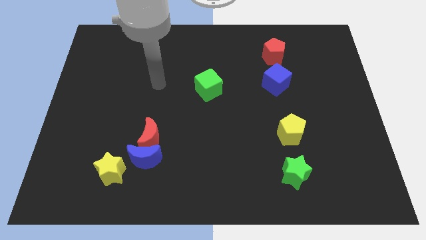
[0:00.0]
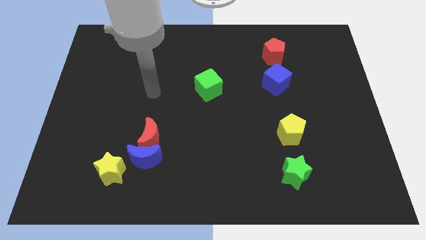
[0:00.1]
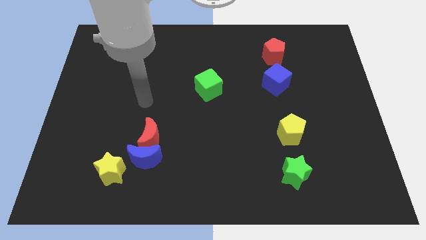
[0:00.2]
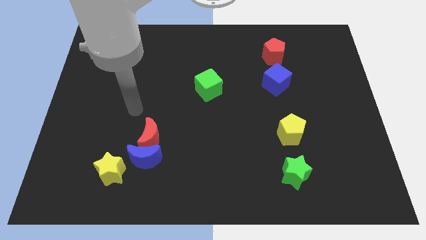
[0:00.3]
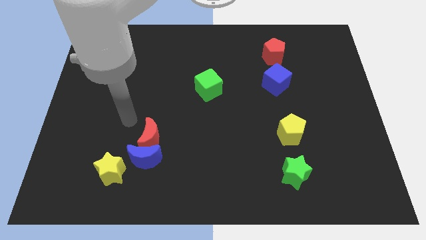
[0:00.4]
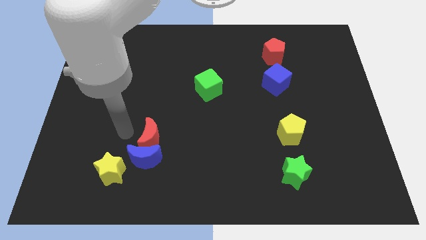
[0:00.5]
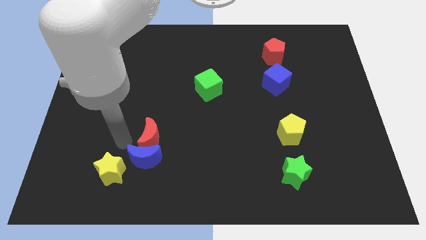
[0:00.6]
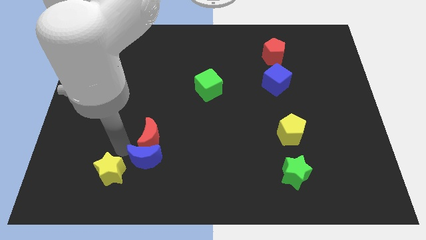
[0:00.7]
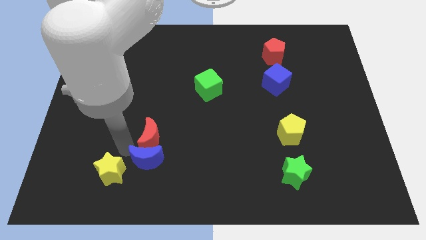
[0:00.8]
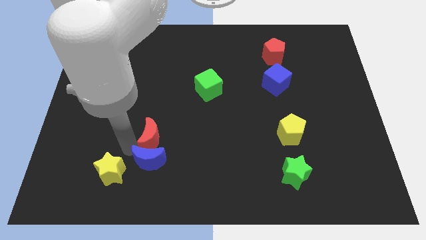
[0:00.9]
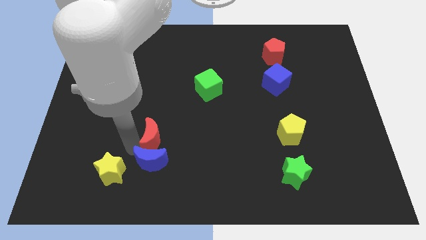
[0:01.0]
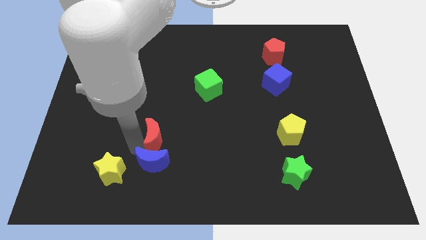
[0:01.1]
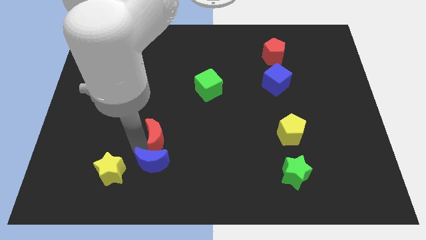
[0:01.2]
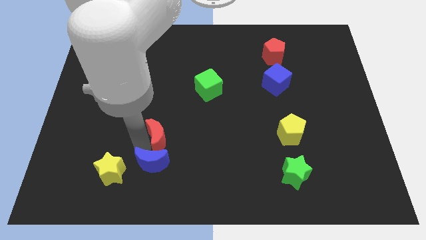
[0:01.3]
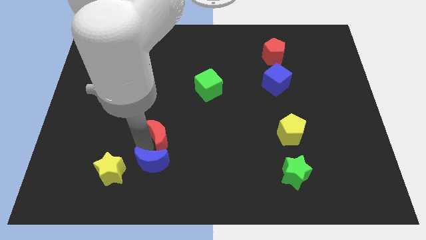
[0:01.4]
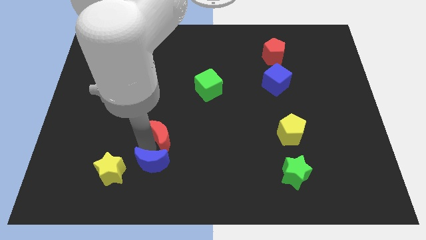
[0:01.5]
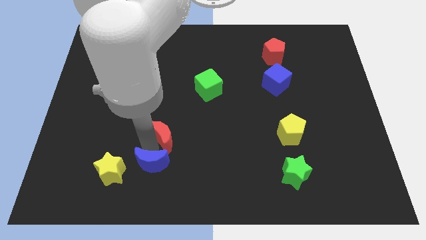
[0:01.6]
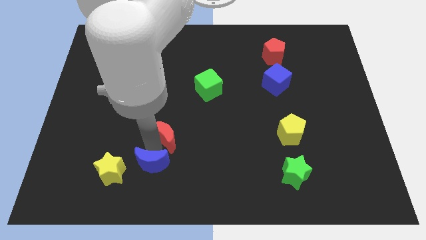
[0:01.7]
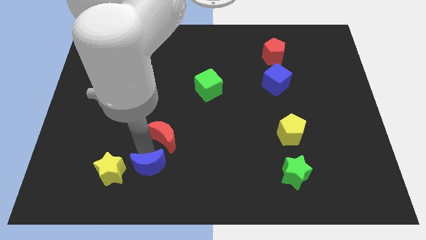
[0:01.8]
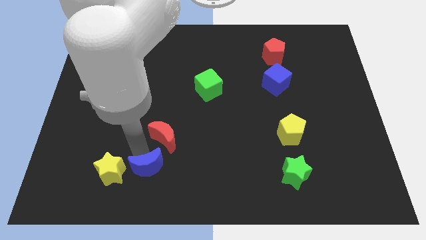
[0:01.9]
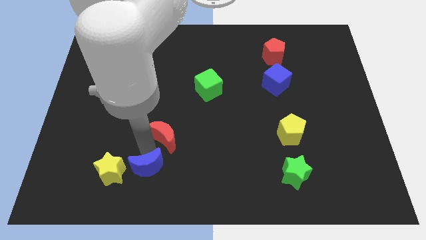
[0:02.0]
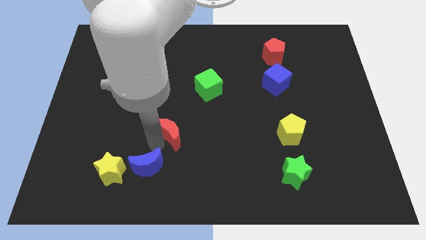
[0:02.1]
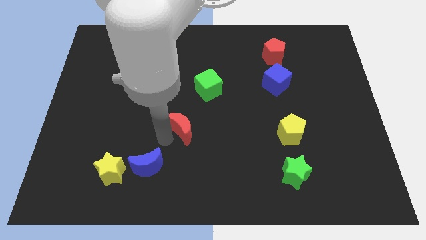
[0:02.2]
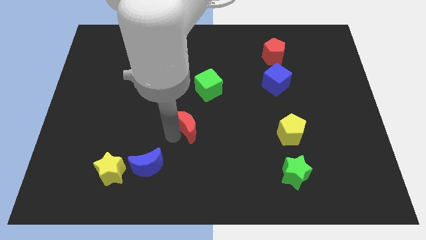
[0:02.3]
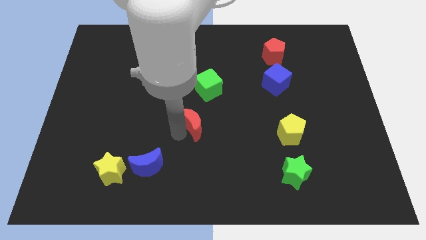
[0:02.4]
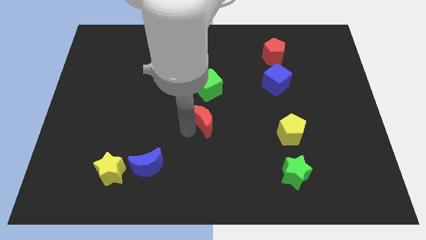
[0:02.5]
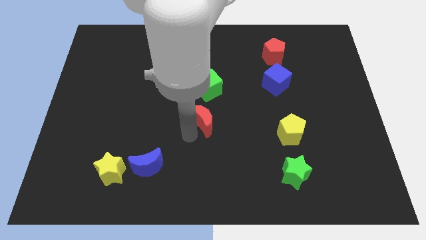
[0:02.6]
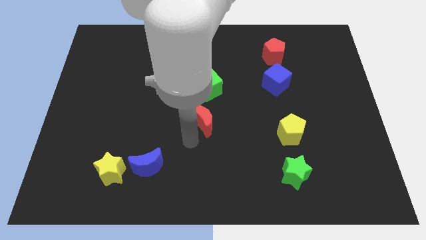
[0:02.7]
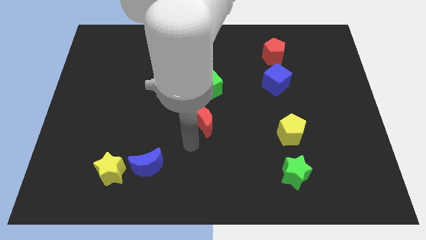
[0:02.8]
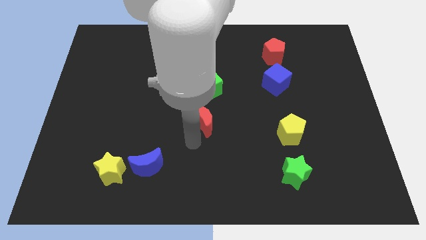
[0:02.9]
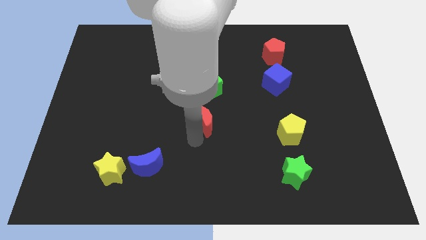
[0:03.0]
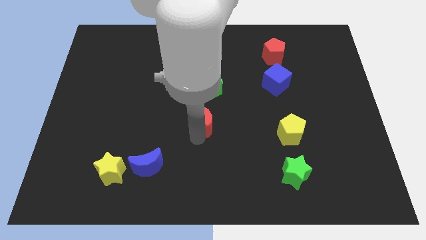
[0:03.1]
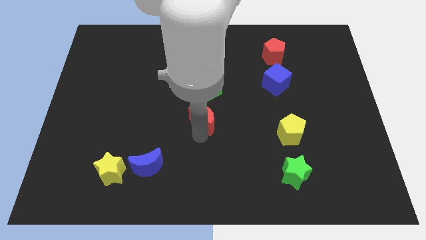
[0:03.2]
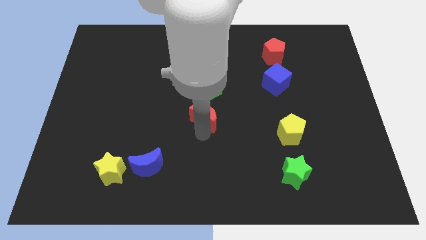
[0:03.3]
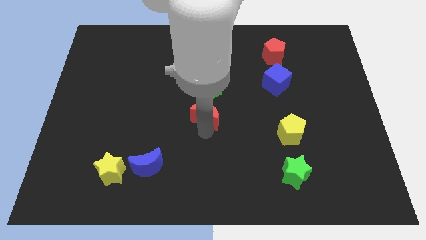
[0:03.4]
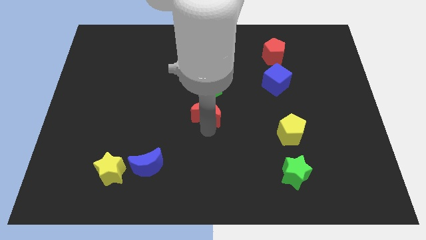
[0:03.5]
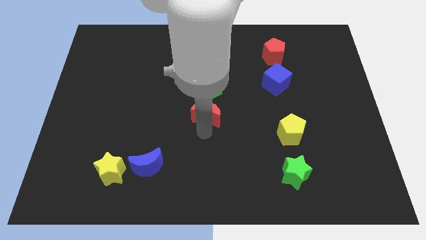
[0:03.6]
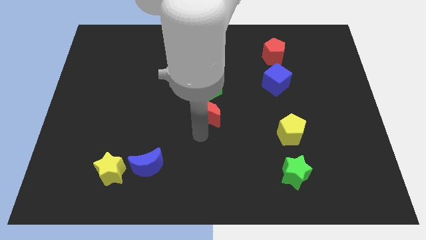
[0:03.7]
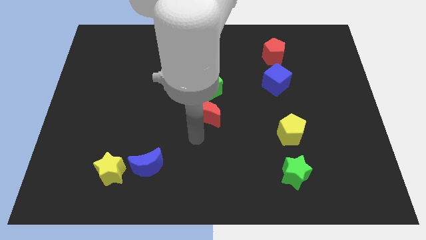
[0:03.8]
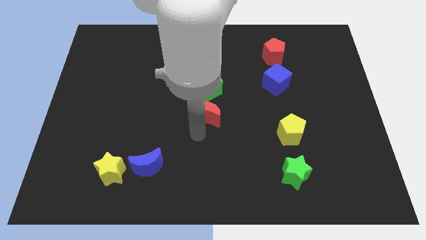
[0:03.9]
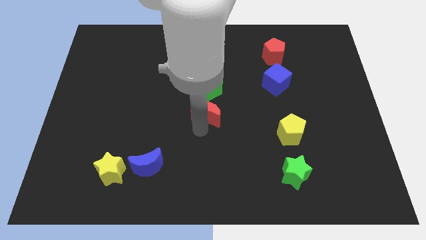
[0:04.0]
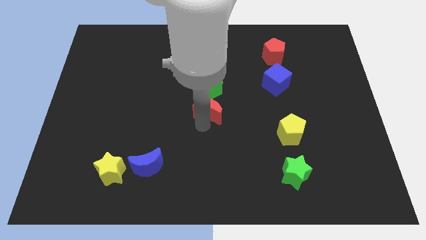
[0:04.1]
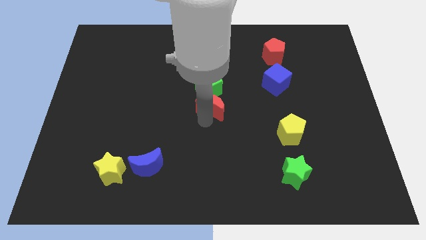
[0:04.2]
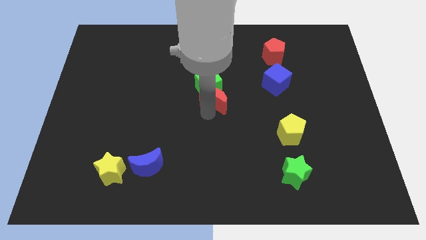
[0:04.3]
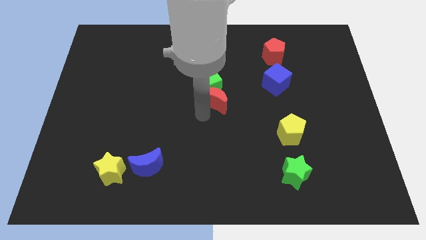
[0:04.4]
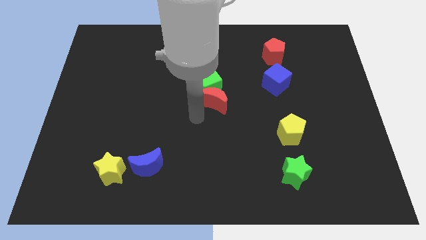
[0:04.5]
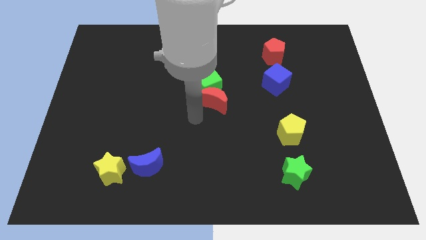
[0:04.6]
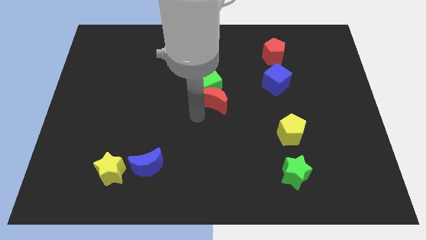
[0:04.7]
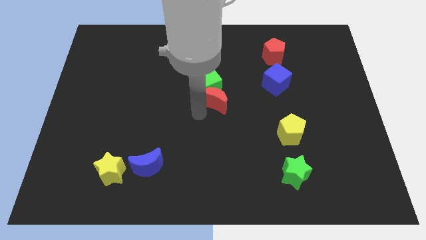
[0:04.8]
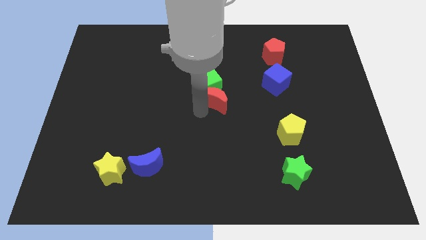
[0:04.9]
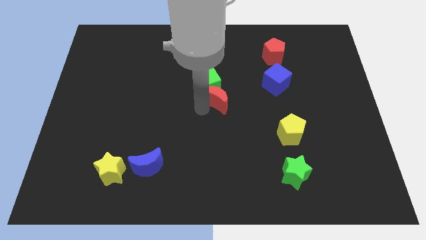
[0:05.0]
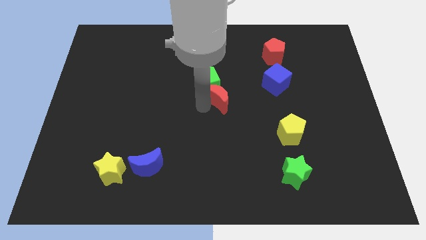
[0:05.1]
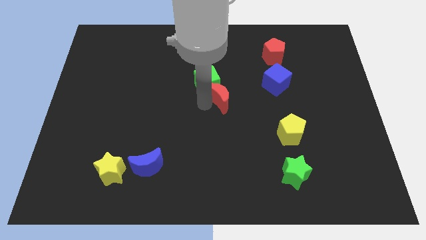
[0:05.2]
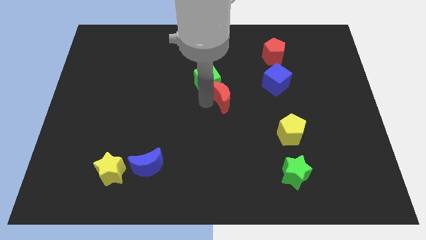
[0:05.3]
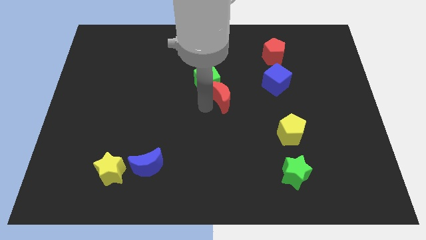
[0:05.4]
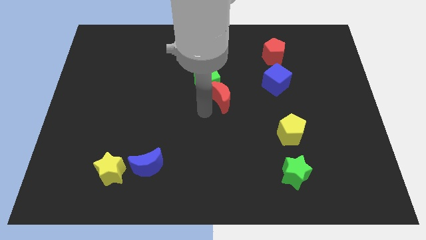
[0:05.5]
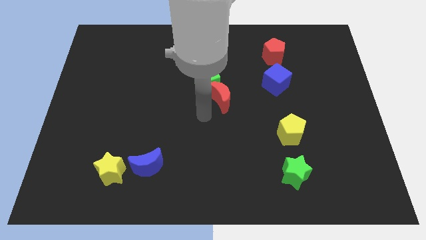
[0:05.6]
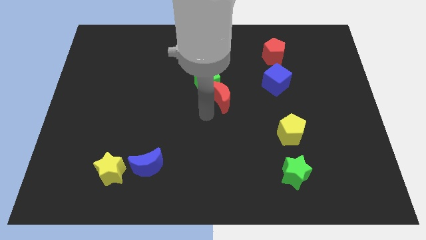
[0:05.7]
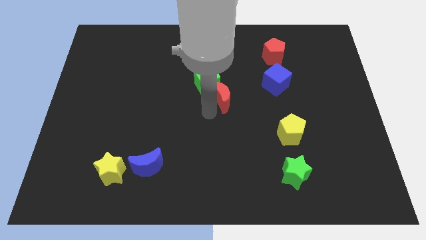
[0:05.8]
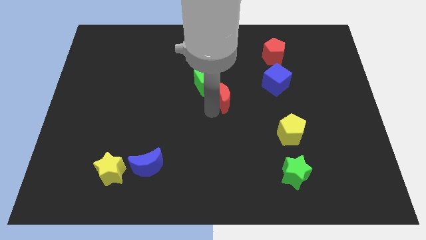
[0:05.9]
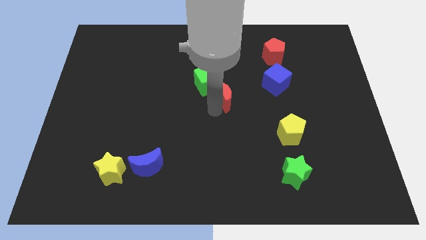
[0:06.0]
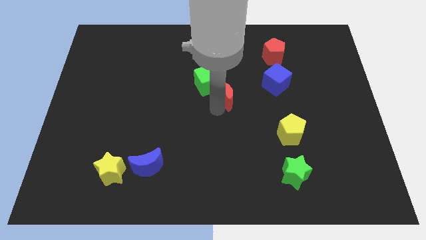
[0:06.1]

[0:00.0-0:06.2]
push the red moon up and then right

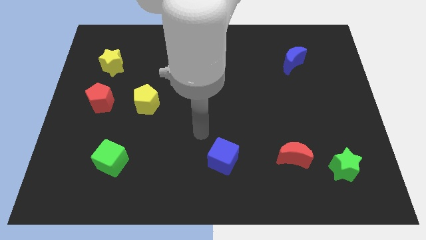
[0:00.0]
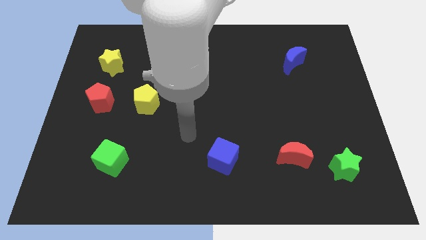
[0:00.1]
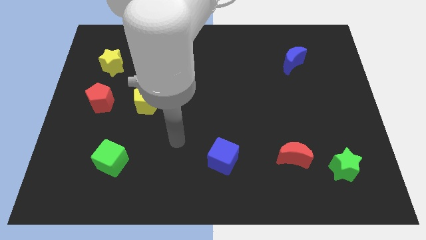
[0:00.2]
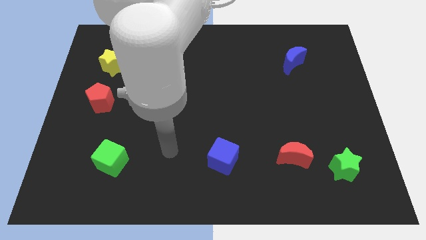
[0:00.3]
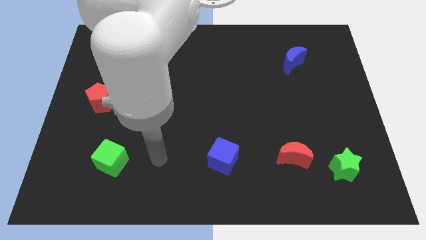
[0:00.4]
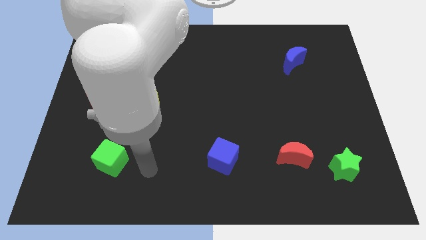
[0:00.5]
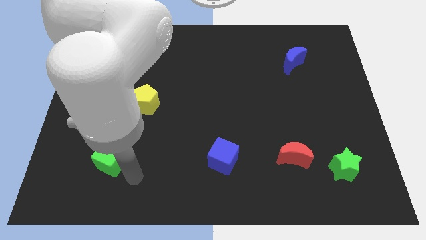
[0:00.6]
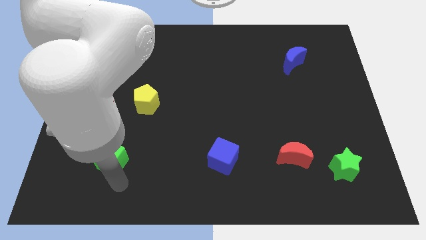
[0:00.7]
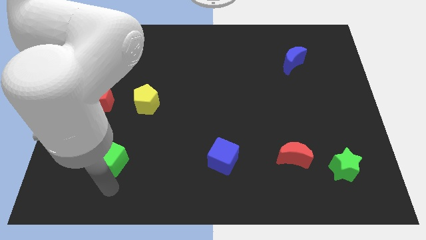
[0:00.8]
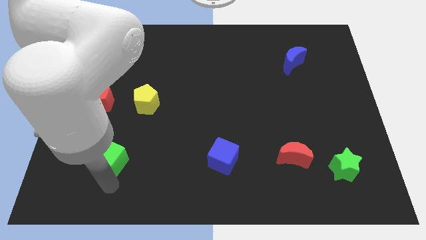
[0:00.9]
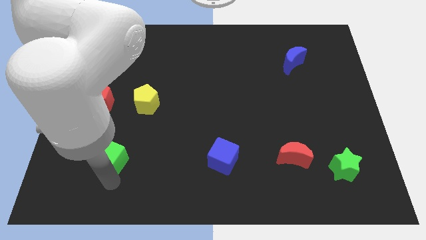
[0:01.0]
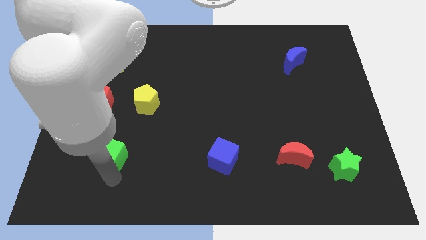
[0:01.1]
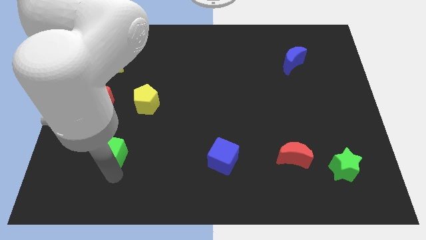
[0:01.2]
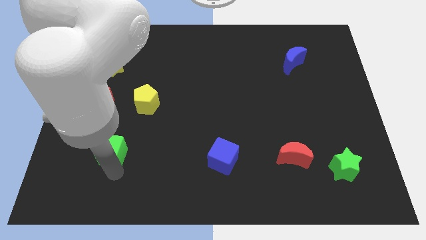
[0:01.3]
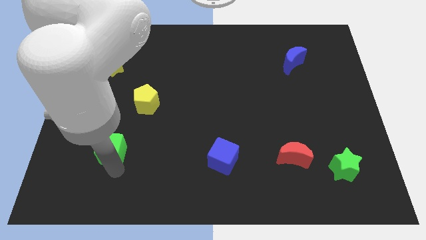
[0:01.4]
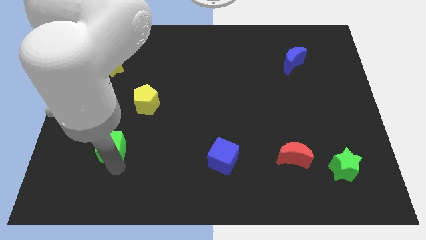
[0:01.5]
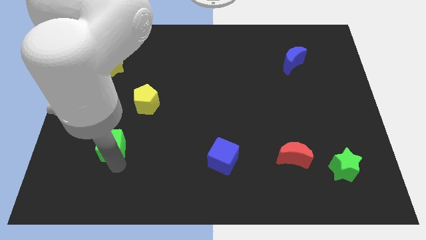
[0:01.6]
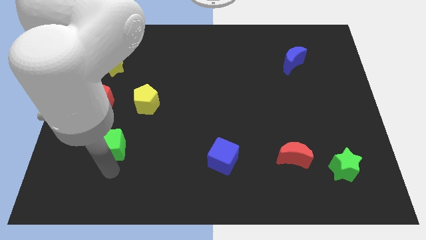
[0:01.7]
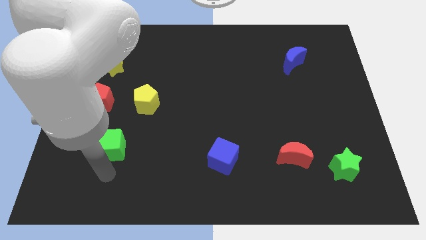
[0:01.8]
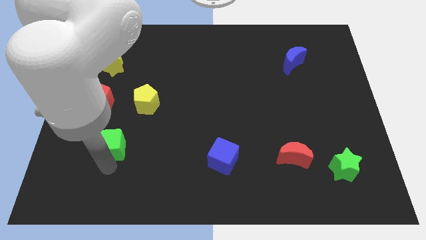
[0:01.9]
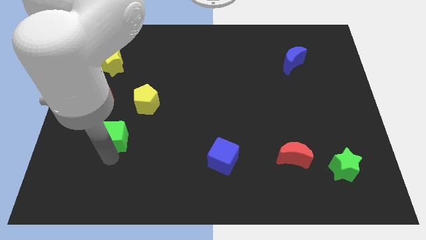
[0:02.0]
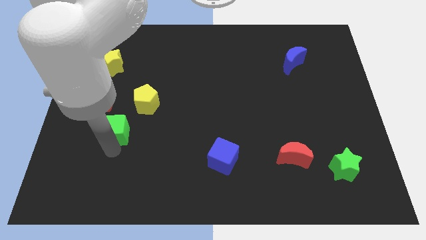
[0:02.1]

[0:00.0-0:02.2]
move the green cube upwards a little
